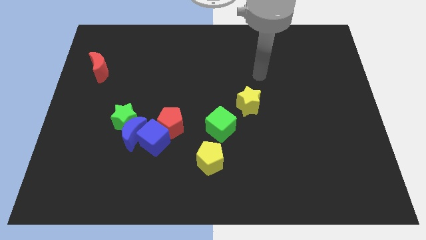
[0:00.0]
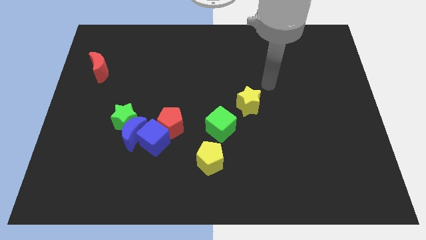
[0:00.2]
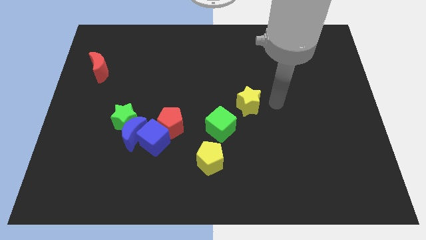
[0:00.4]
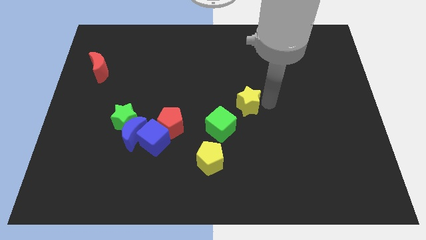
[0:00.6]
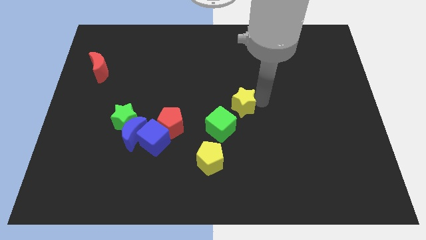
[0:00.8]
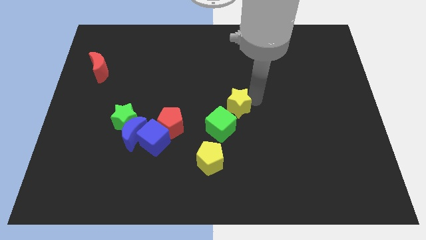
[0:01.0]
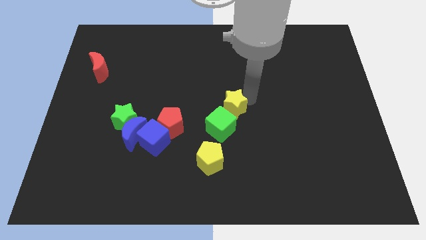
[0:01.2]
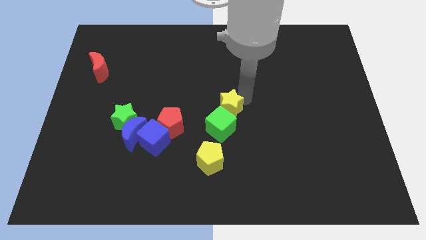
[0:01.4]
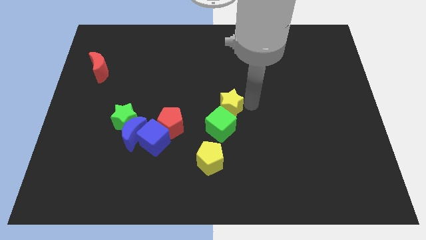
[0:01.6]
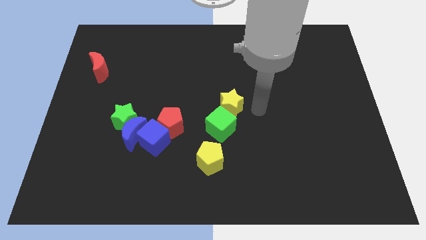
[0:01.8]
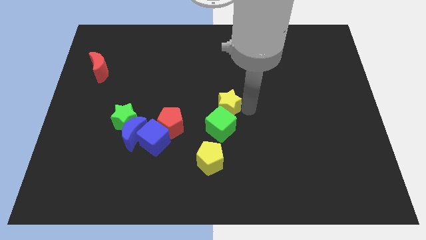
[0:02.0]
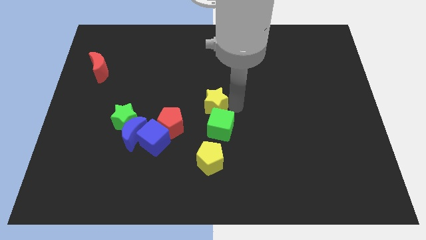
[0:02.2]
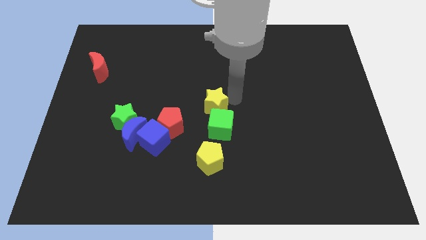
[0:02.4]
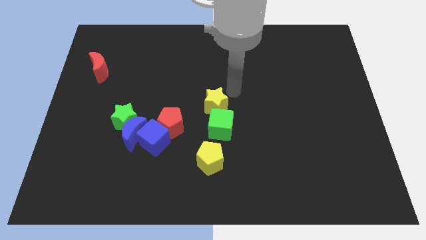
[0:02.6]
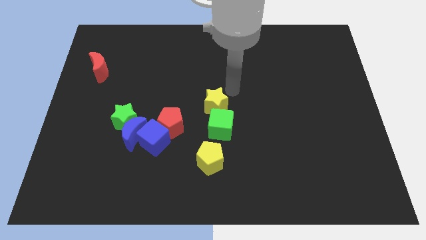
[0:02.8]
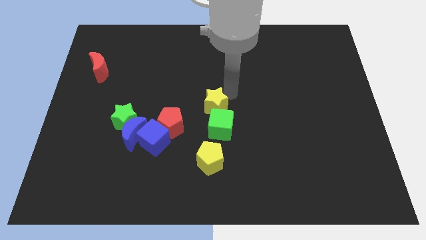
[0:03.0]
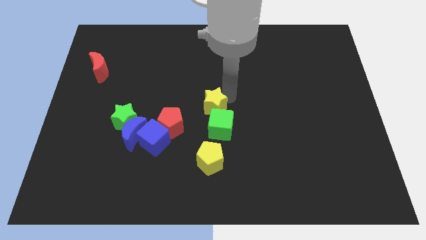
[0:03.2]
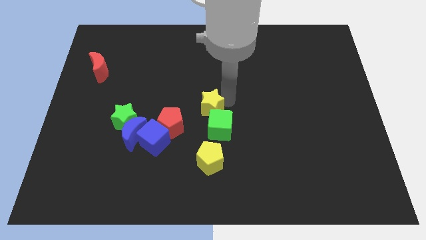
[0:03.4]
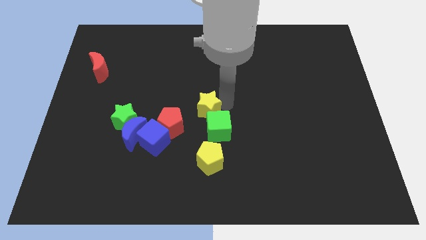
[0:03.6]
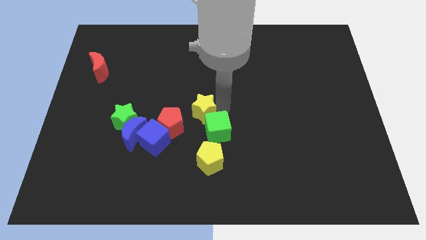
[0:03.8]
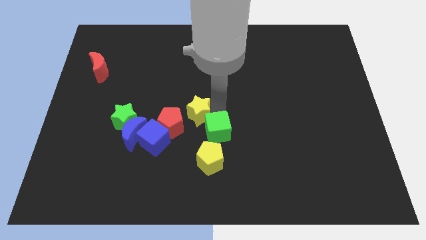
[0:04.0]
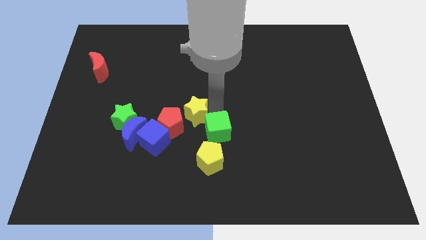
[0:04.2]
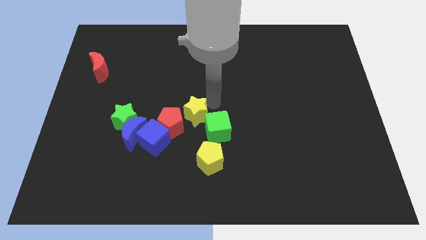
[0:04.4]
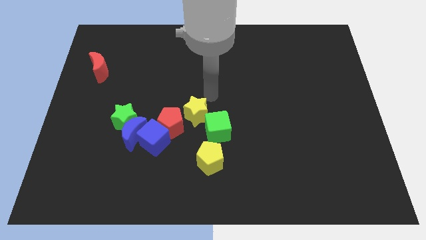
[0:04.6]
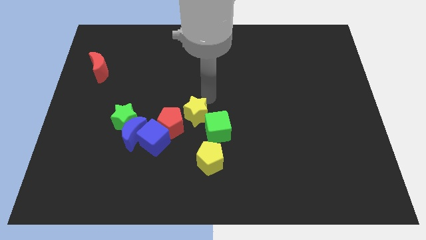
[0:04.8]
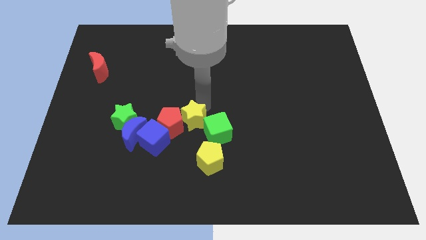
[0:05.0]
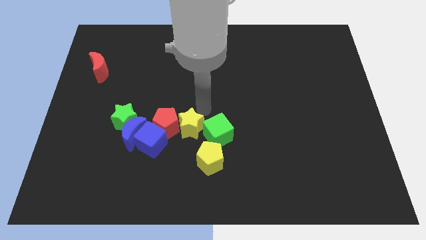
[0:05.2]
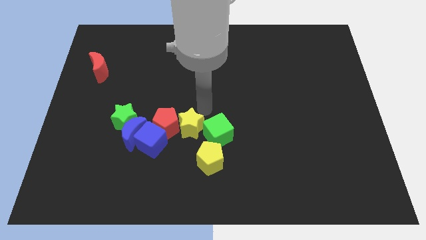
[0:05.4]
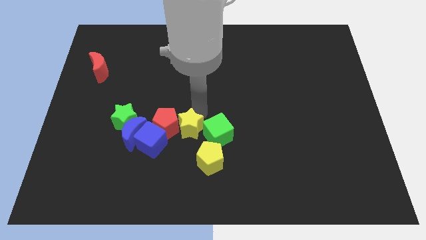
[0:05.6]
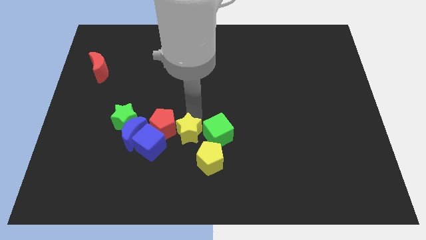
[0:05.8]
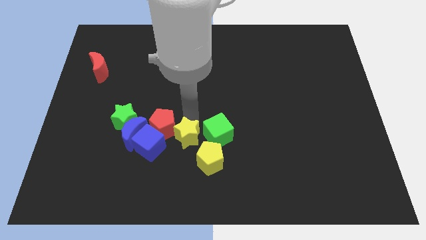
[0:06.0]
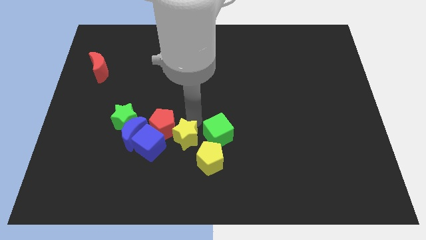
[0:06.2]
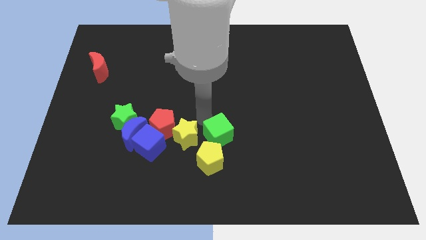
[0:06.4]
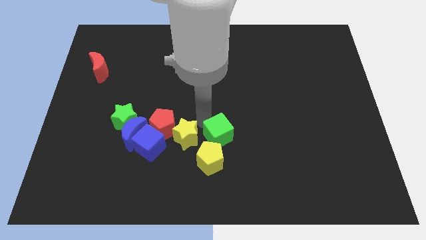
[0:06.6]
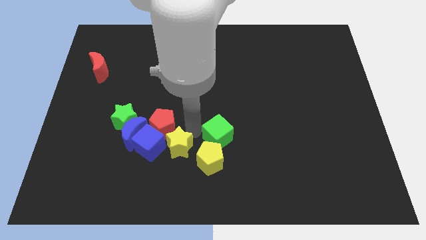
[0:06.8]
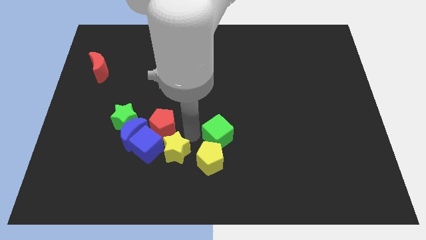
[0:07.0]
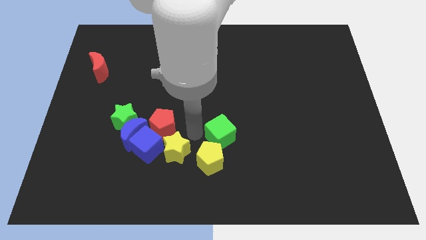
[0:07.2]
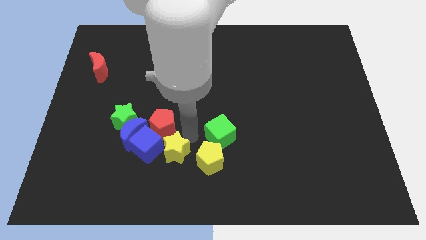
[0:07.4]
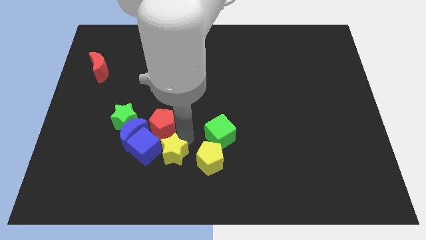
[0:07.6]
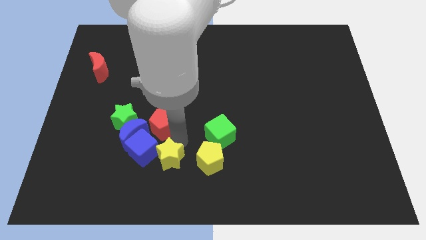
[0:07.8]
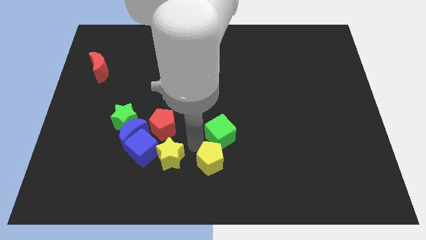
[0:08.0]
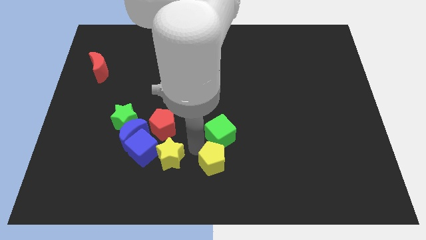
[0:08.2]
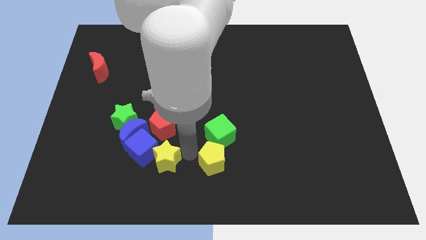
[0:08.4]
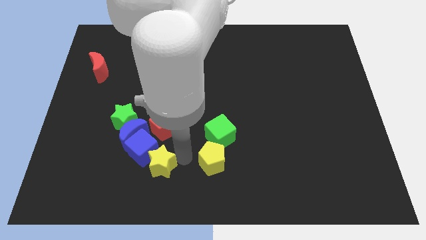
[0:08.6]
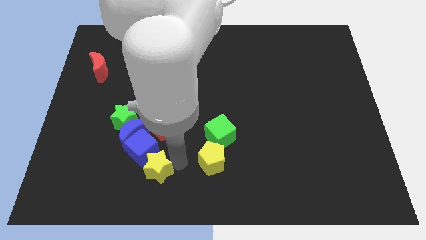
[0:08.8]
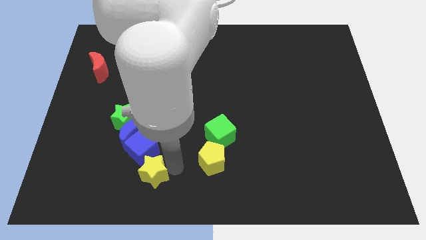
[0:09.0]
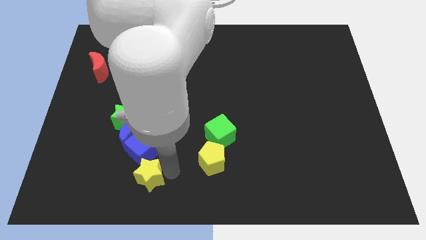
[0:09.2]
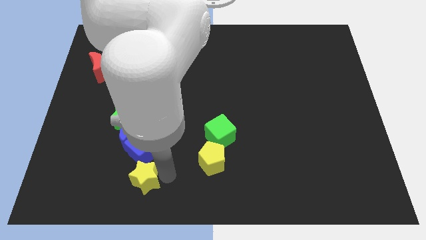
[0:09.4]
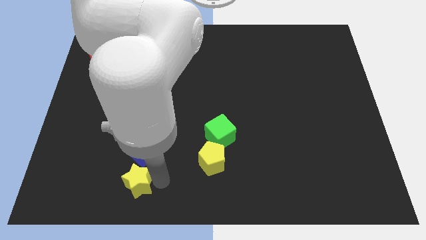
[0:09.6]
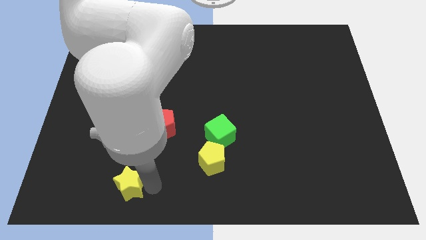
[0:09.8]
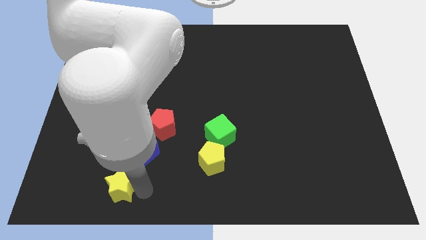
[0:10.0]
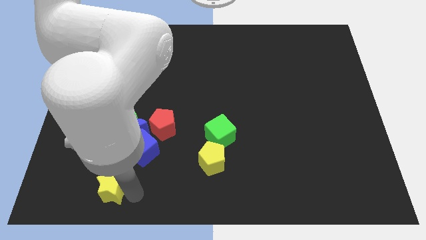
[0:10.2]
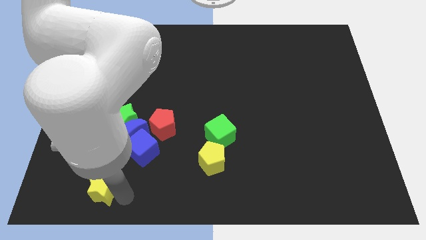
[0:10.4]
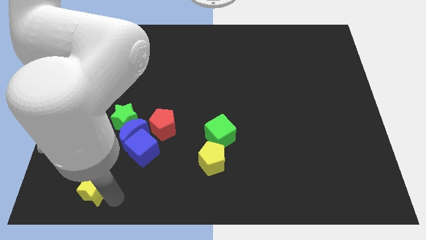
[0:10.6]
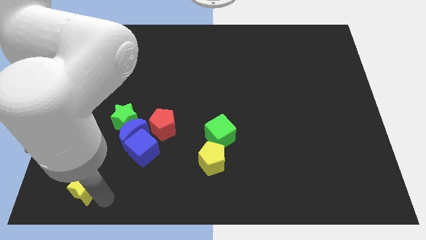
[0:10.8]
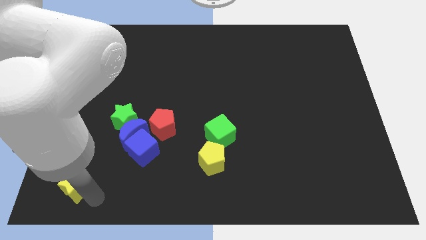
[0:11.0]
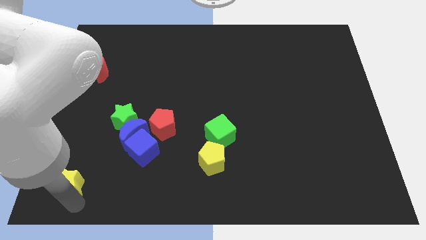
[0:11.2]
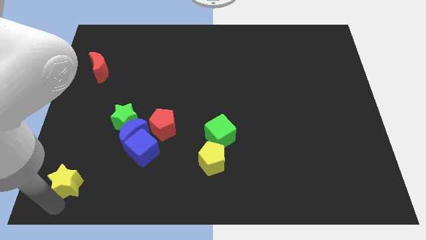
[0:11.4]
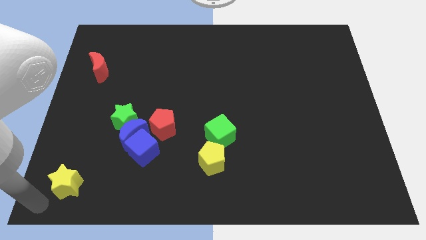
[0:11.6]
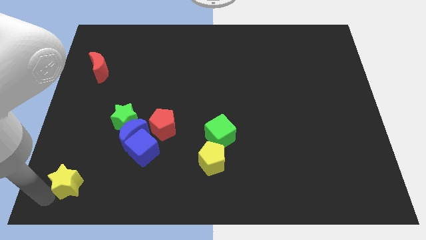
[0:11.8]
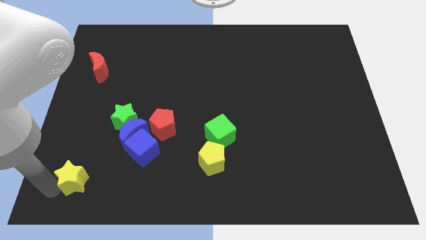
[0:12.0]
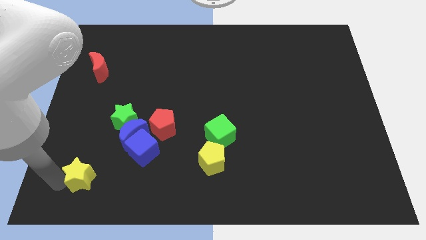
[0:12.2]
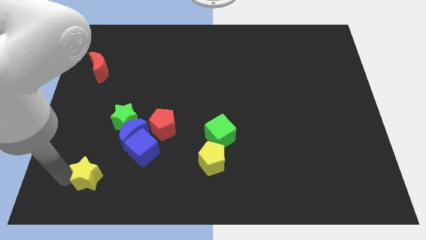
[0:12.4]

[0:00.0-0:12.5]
slide the yellow star to the bottom left of the blue moon
